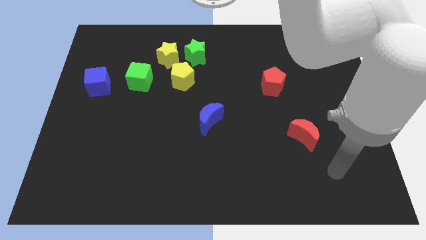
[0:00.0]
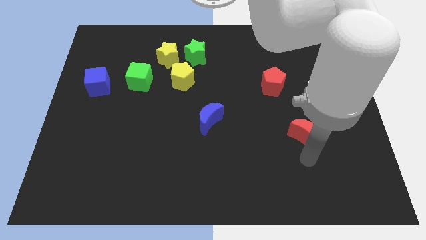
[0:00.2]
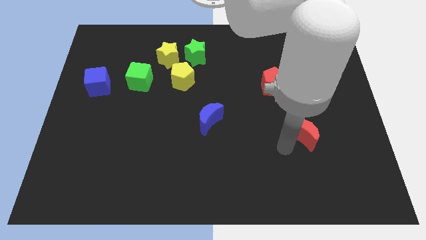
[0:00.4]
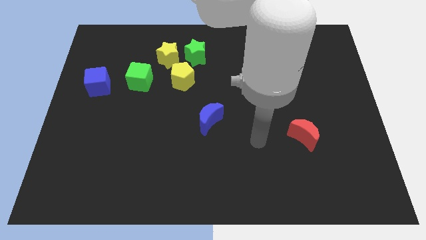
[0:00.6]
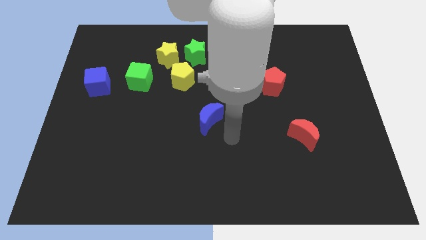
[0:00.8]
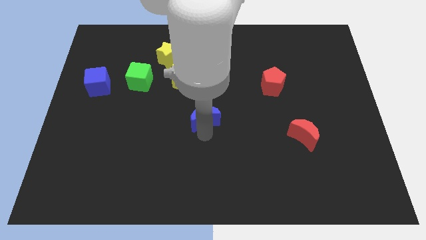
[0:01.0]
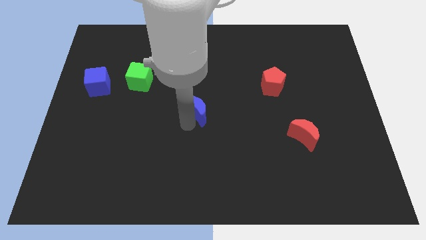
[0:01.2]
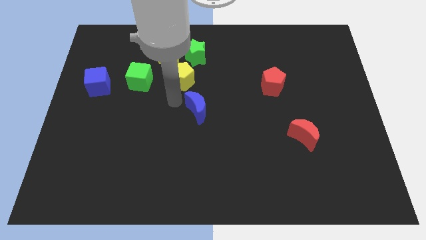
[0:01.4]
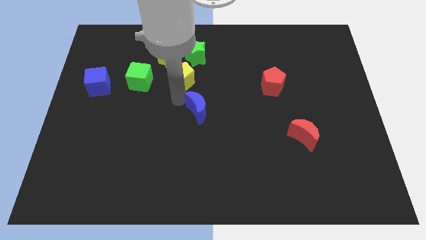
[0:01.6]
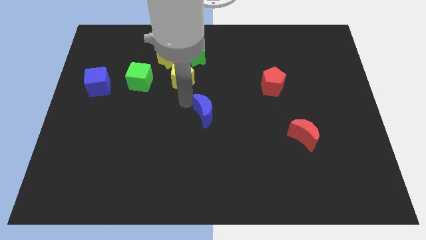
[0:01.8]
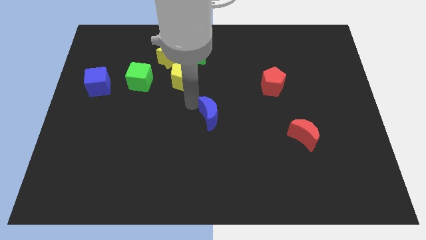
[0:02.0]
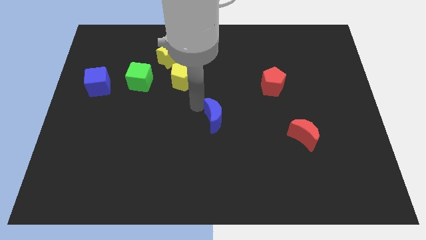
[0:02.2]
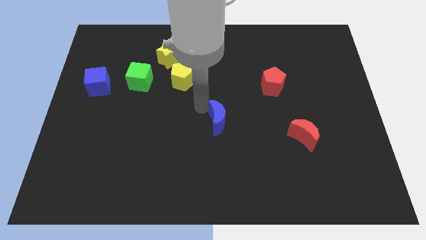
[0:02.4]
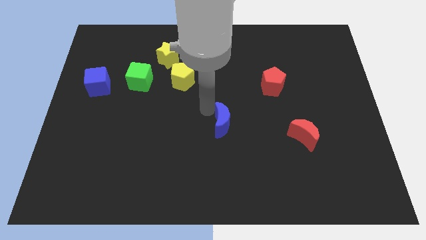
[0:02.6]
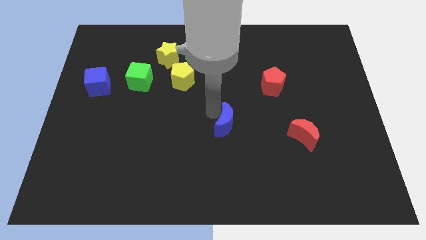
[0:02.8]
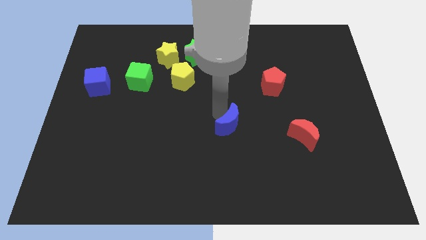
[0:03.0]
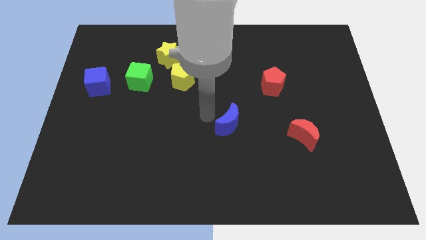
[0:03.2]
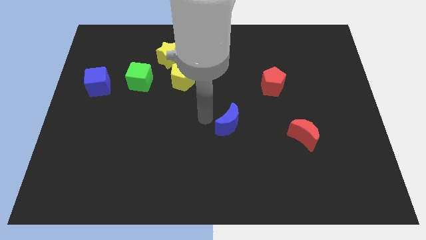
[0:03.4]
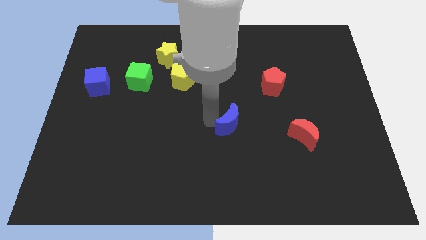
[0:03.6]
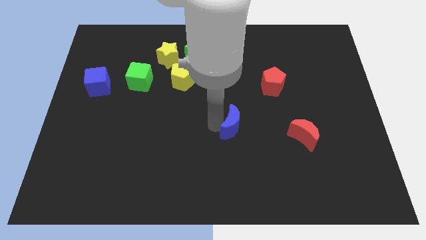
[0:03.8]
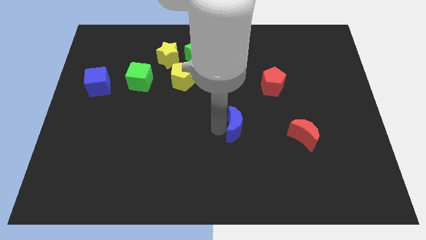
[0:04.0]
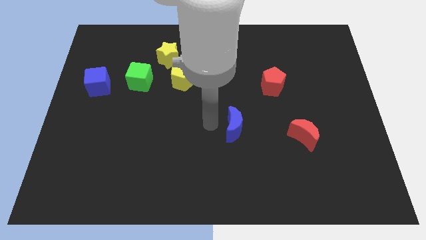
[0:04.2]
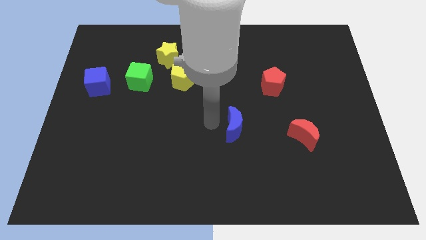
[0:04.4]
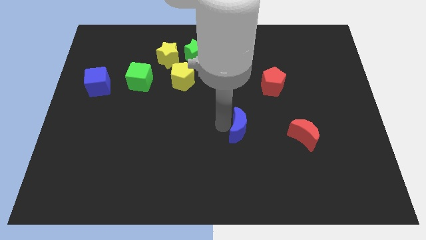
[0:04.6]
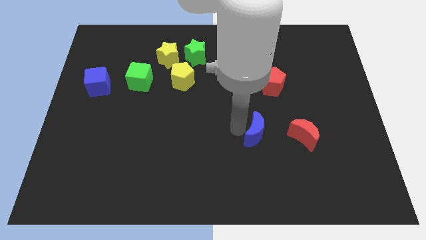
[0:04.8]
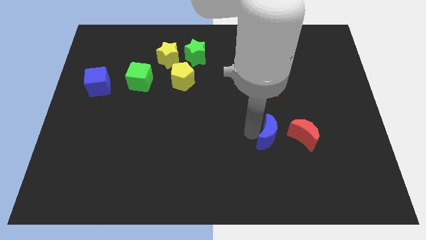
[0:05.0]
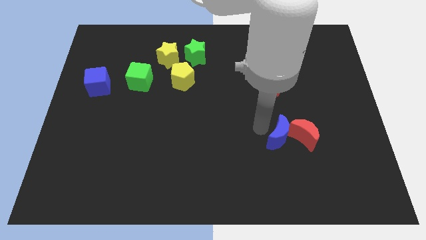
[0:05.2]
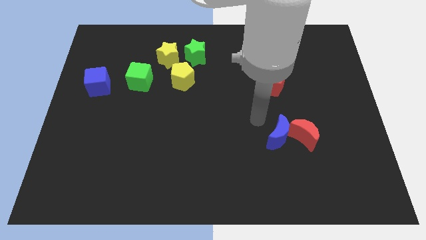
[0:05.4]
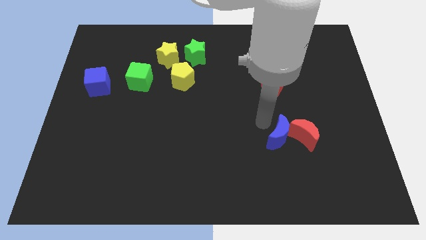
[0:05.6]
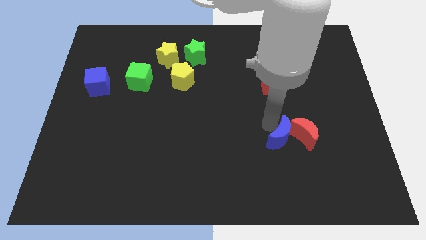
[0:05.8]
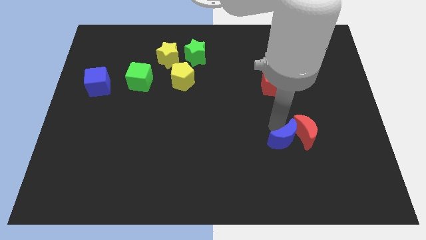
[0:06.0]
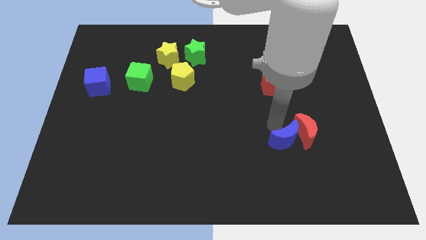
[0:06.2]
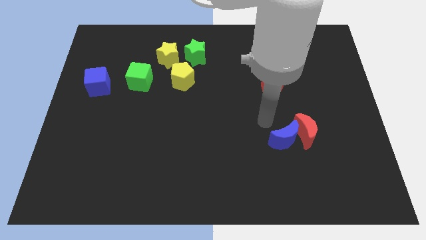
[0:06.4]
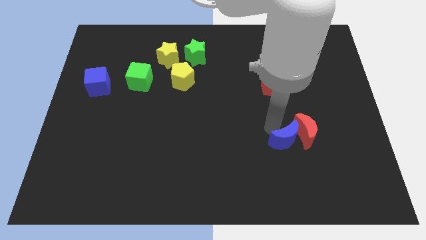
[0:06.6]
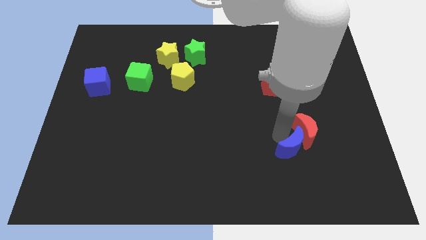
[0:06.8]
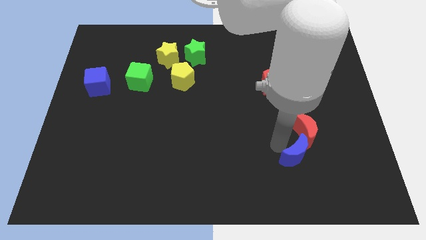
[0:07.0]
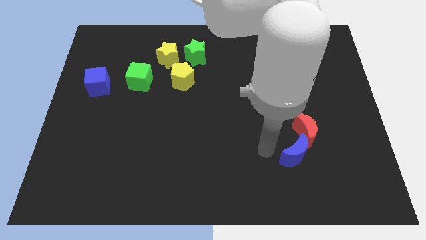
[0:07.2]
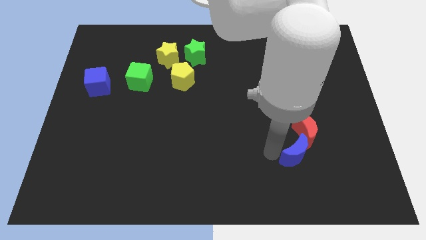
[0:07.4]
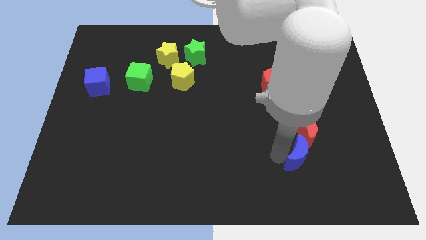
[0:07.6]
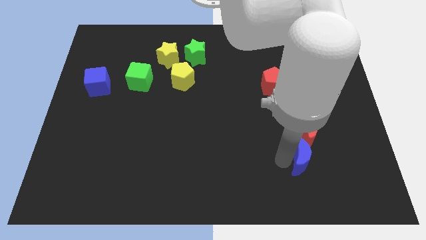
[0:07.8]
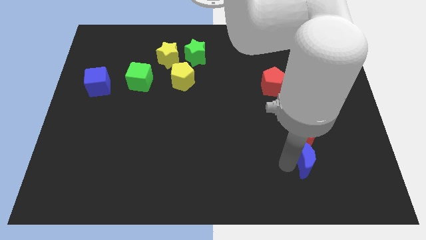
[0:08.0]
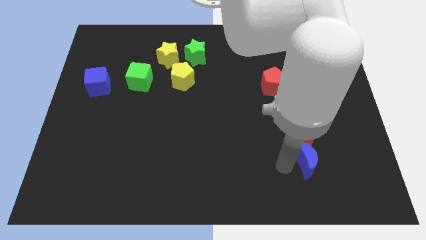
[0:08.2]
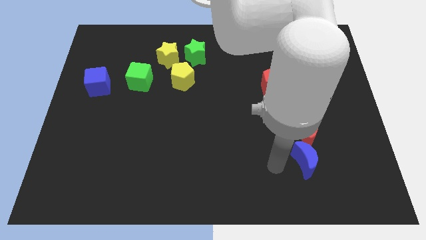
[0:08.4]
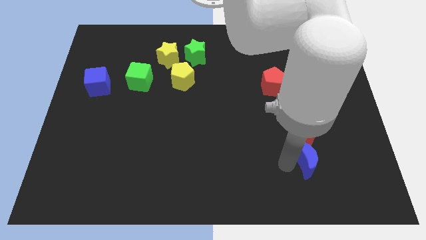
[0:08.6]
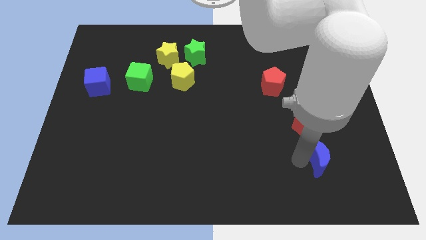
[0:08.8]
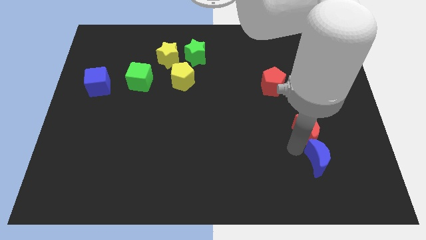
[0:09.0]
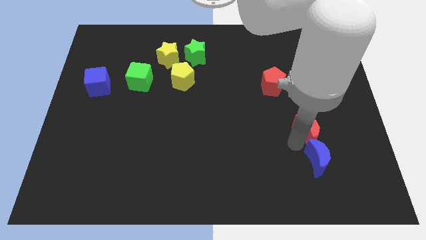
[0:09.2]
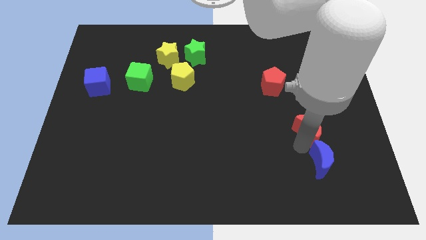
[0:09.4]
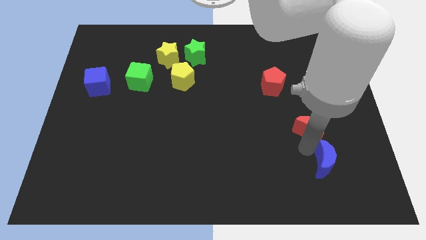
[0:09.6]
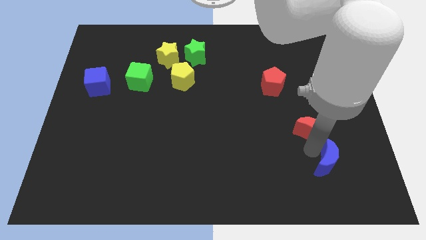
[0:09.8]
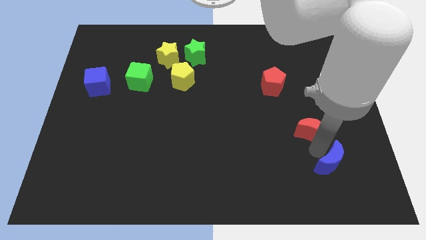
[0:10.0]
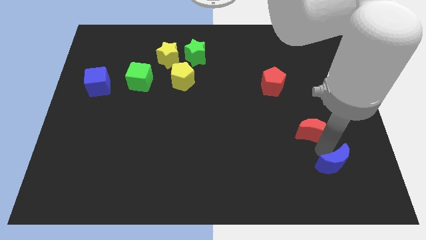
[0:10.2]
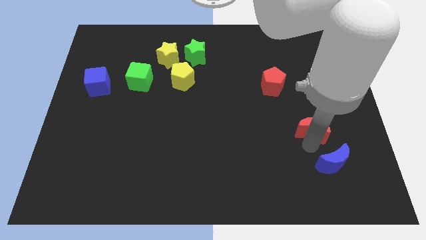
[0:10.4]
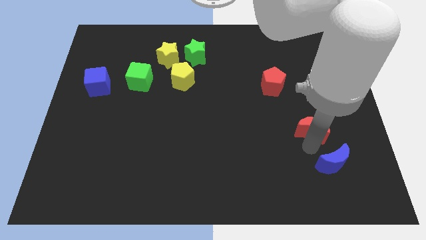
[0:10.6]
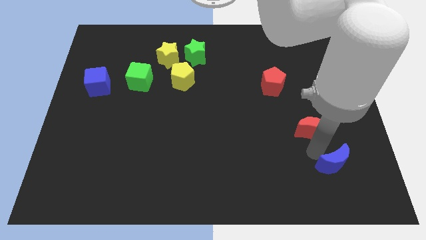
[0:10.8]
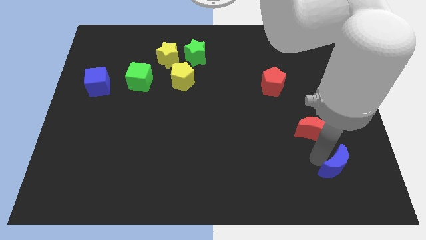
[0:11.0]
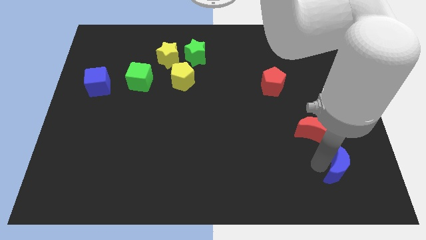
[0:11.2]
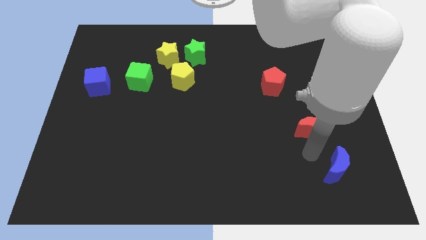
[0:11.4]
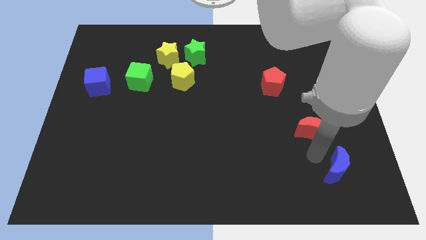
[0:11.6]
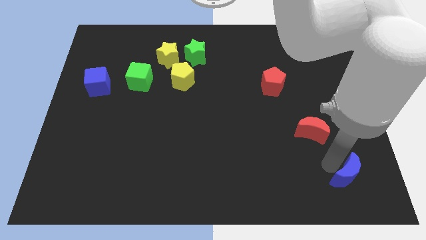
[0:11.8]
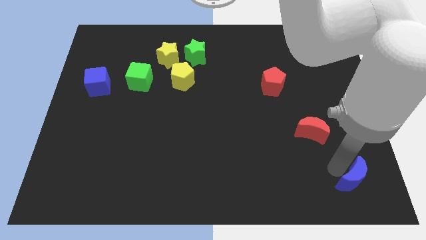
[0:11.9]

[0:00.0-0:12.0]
slide the blue moon to the lower right corner
